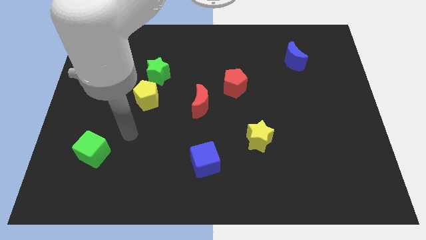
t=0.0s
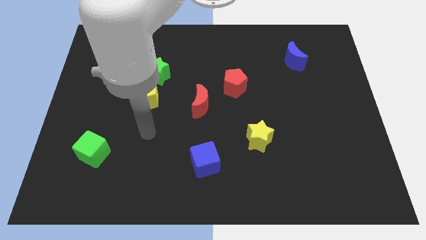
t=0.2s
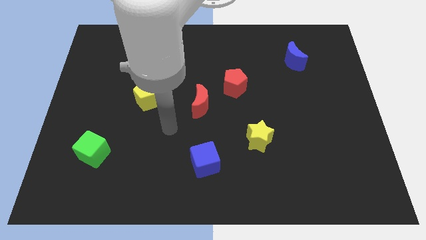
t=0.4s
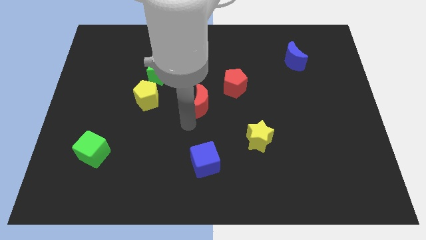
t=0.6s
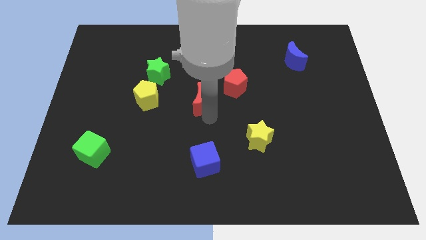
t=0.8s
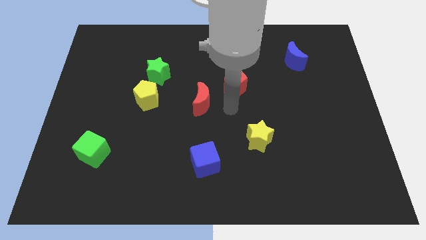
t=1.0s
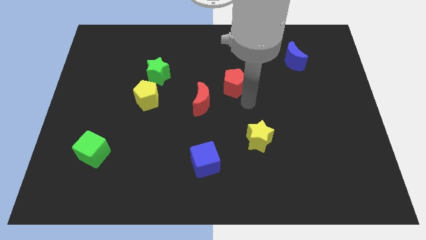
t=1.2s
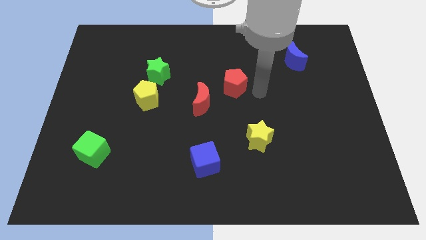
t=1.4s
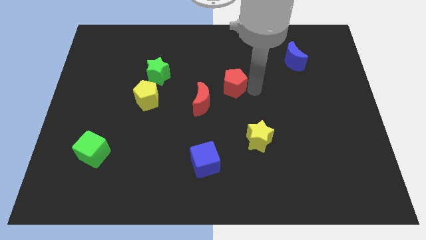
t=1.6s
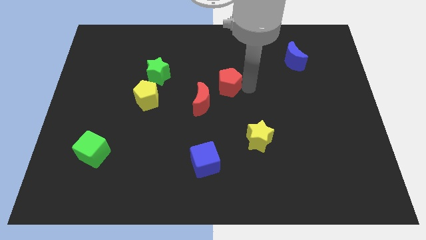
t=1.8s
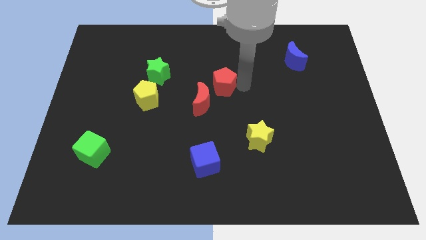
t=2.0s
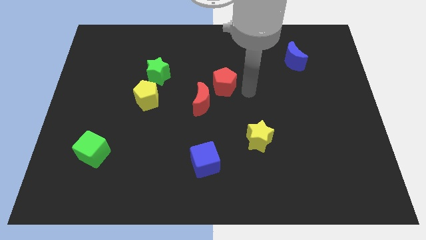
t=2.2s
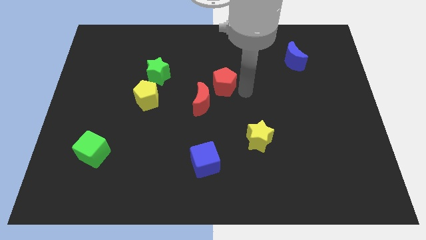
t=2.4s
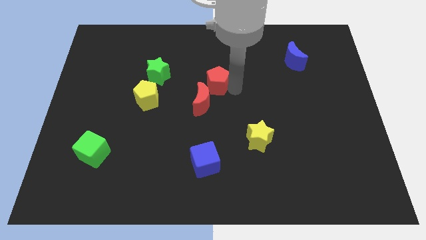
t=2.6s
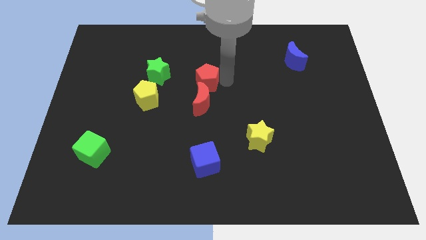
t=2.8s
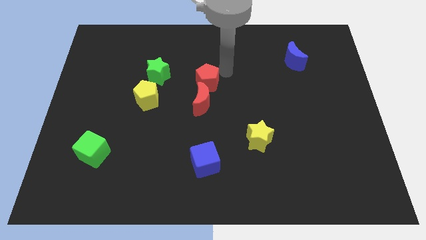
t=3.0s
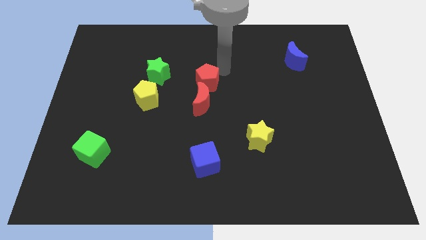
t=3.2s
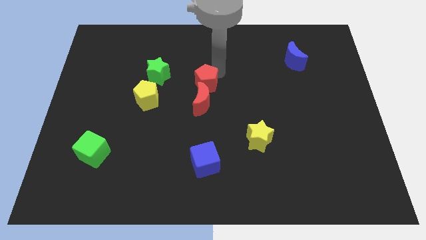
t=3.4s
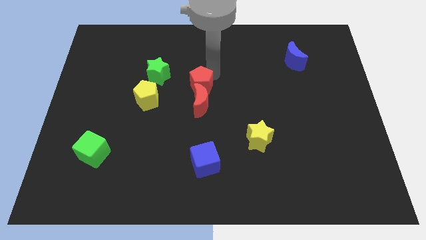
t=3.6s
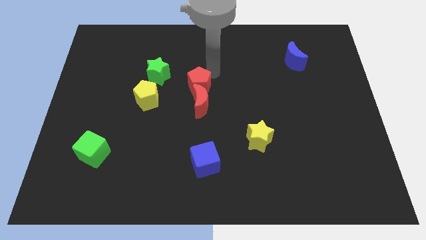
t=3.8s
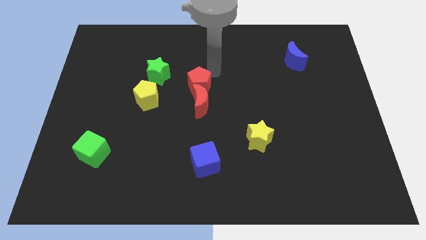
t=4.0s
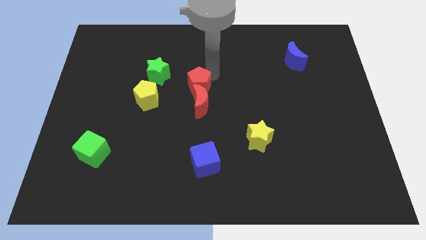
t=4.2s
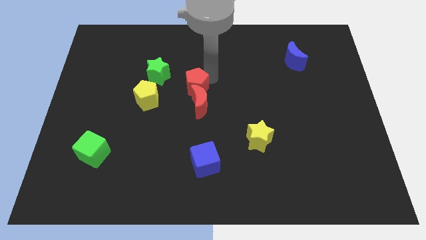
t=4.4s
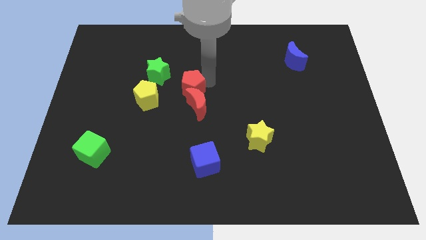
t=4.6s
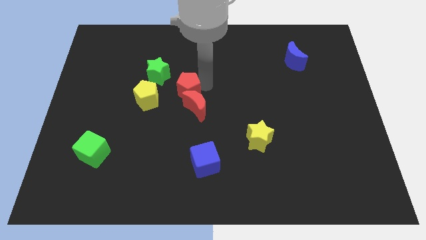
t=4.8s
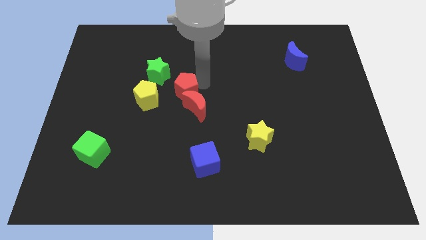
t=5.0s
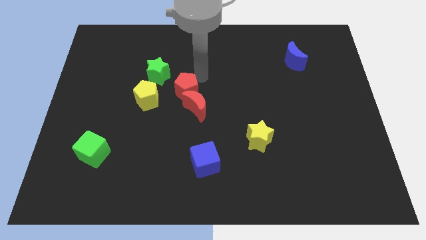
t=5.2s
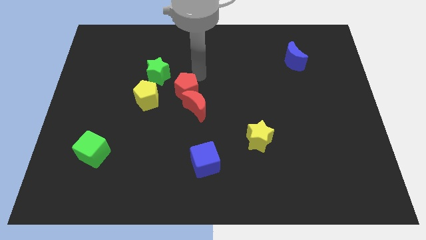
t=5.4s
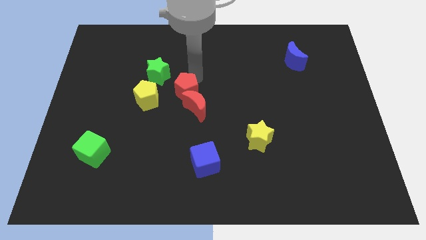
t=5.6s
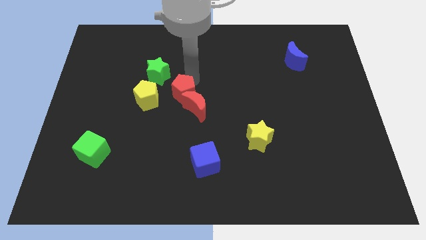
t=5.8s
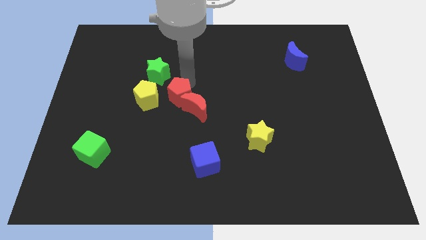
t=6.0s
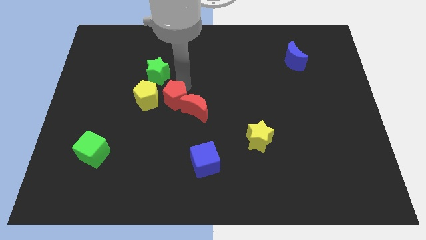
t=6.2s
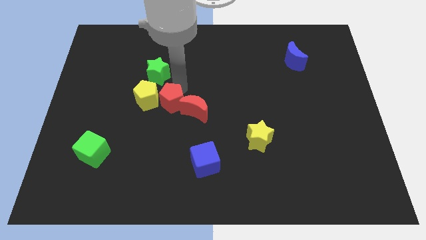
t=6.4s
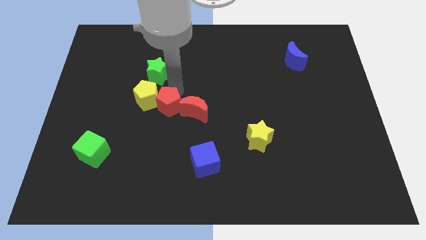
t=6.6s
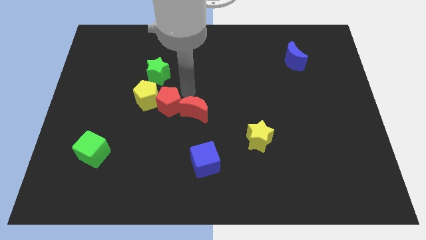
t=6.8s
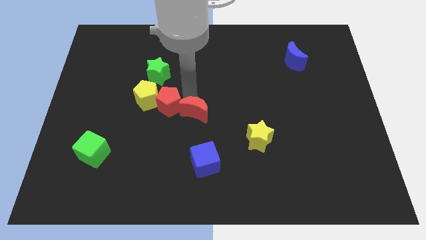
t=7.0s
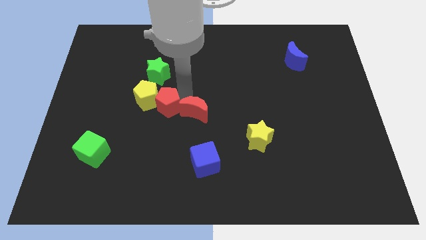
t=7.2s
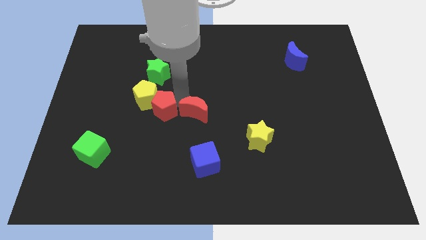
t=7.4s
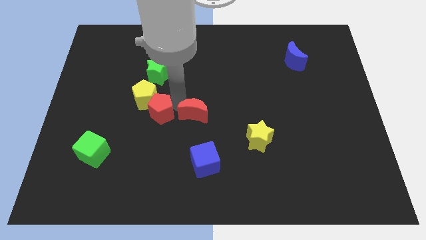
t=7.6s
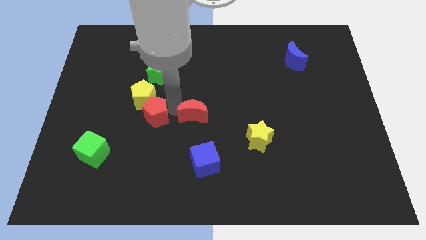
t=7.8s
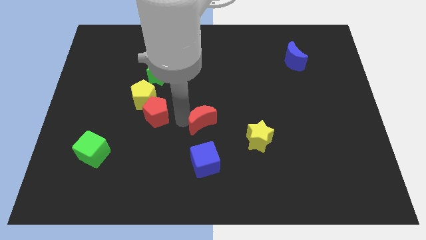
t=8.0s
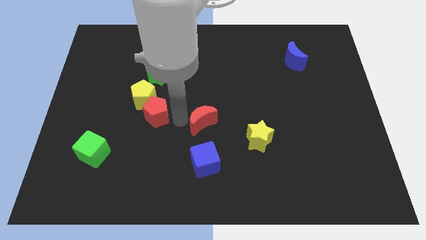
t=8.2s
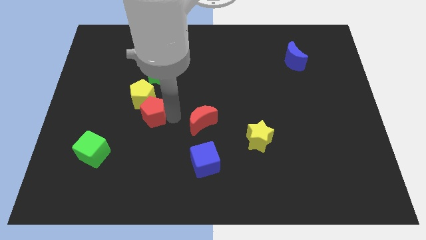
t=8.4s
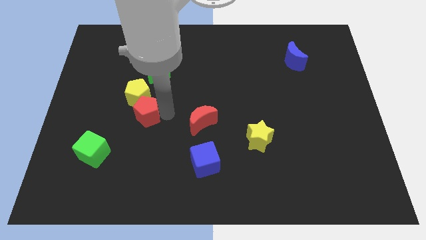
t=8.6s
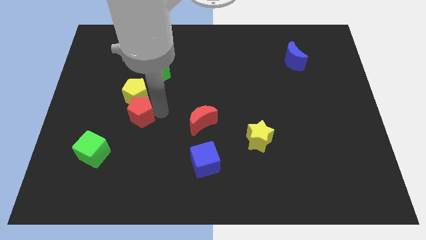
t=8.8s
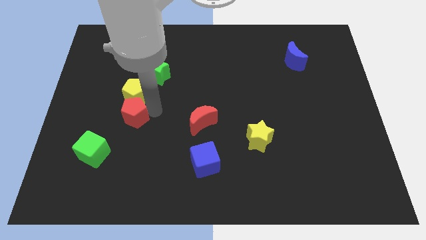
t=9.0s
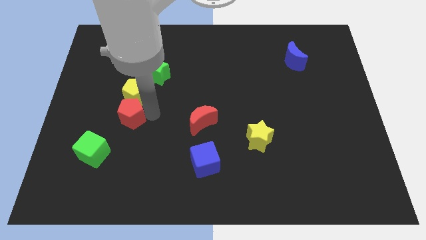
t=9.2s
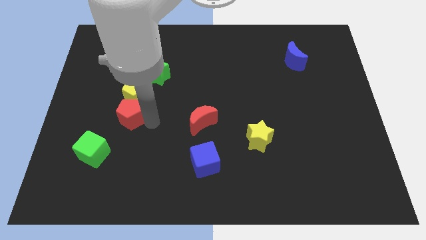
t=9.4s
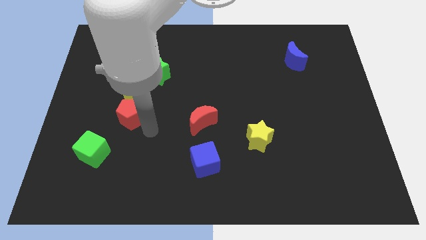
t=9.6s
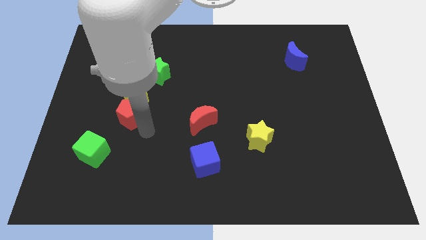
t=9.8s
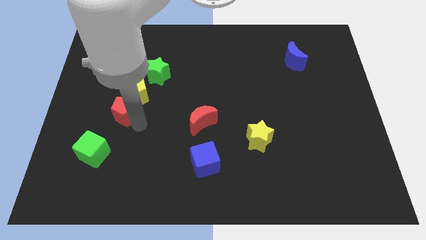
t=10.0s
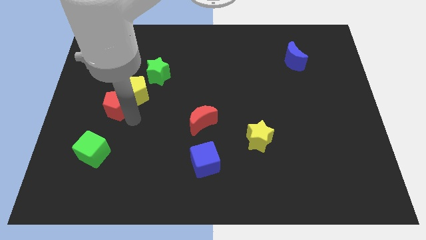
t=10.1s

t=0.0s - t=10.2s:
push the red pentagon left of the yellow pentagon
